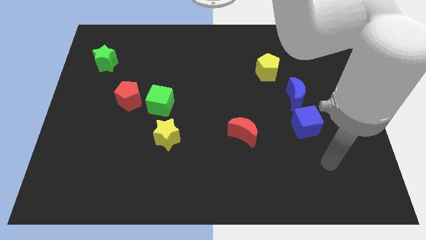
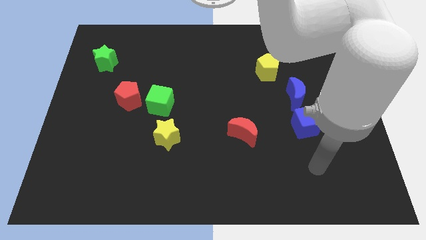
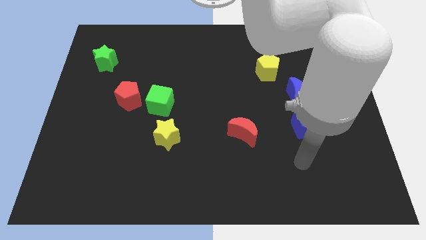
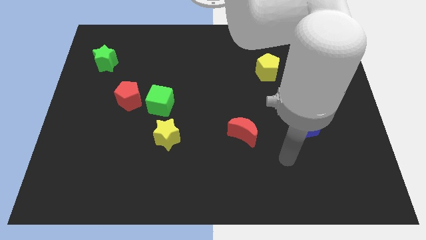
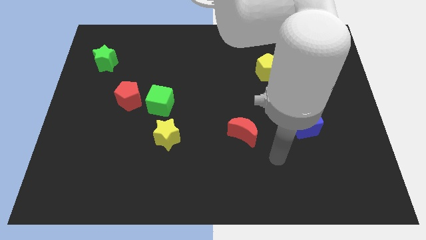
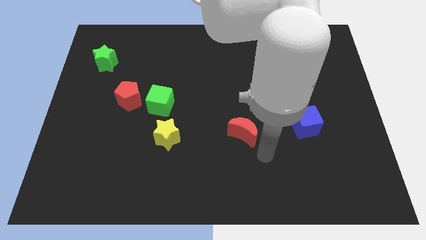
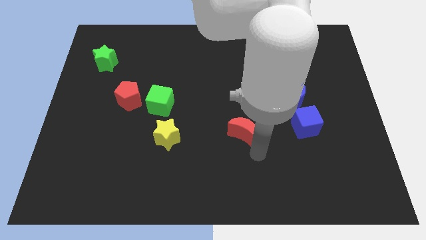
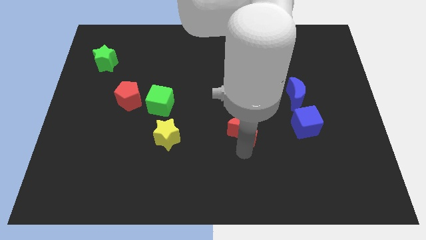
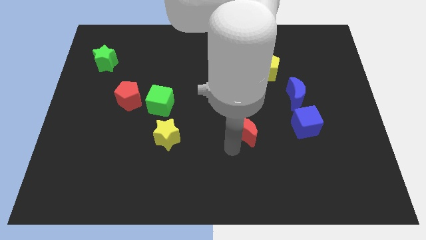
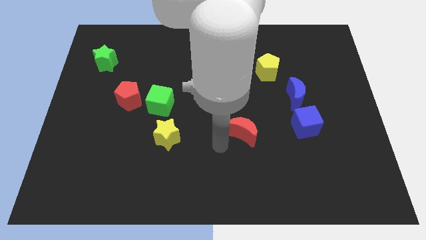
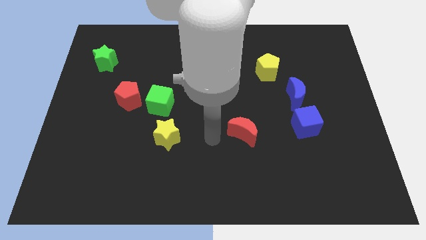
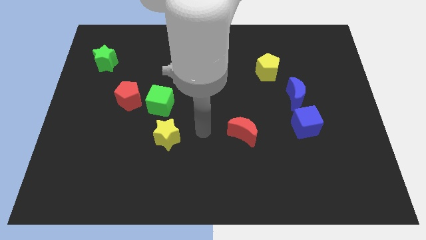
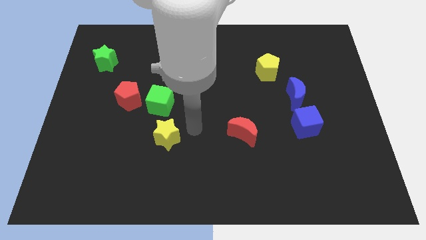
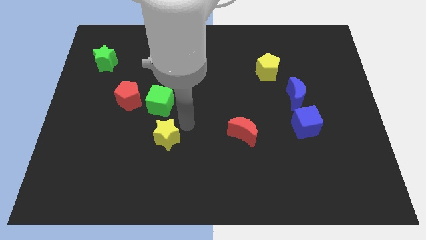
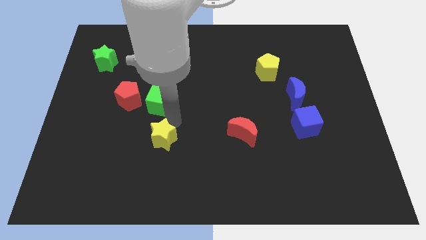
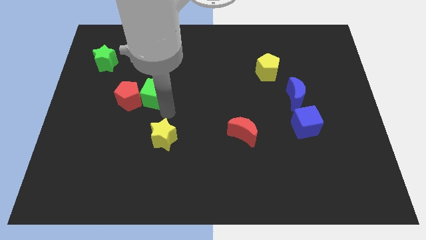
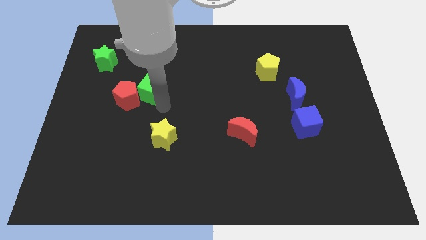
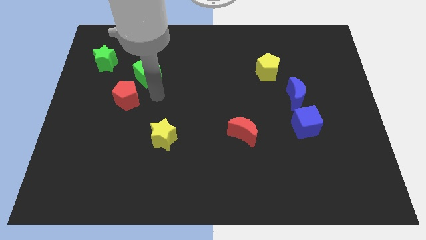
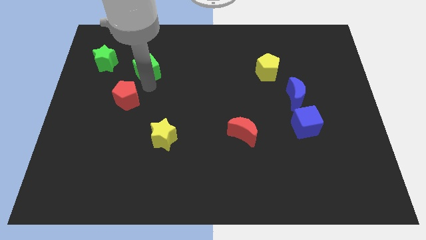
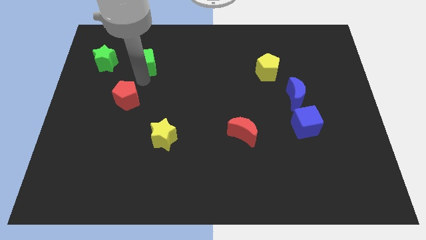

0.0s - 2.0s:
pull the red pentagon apart from the green cube

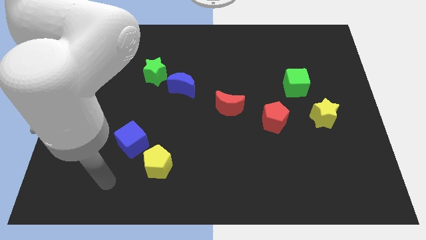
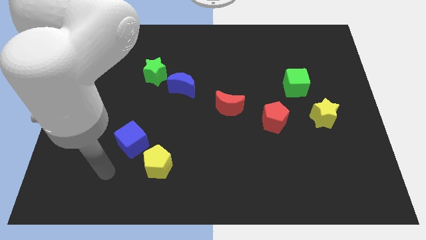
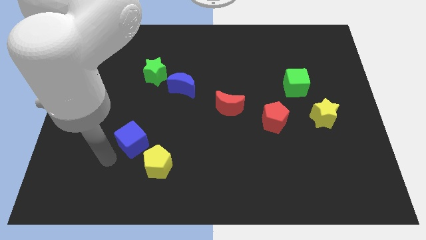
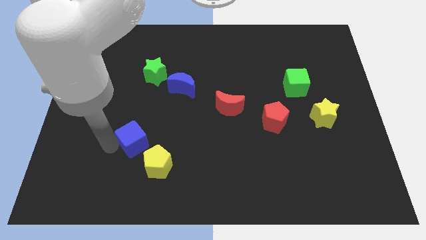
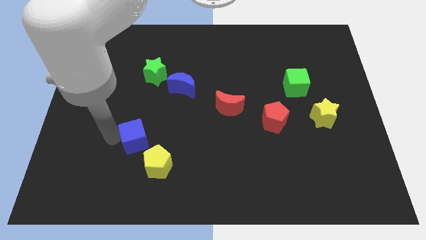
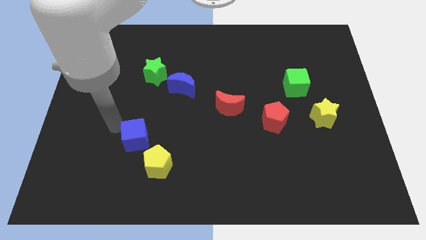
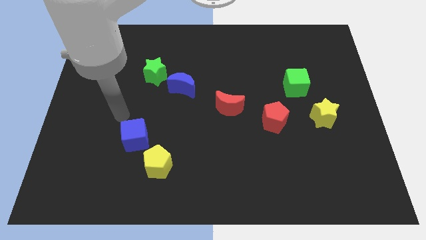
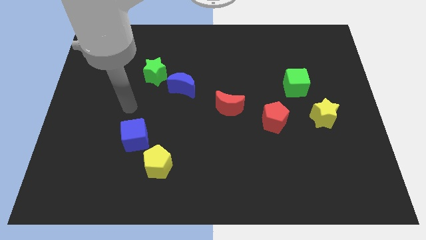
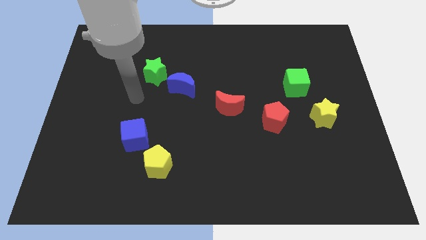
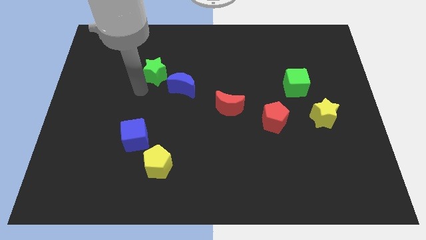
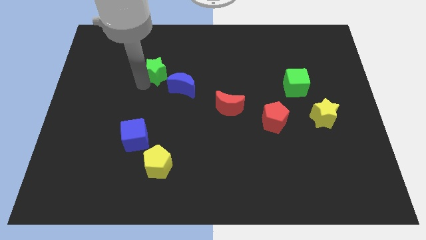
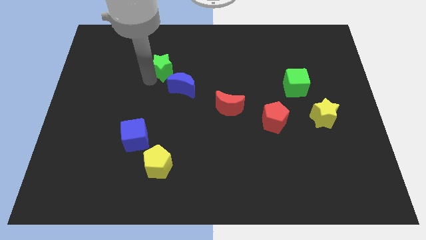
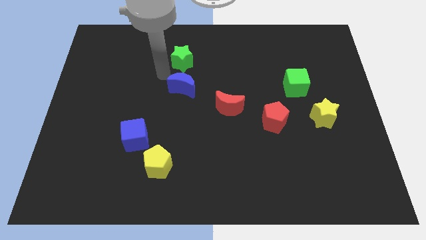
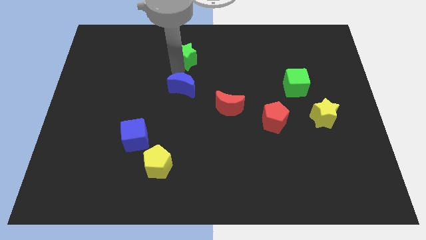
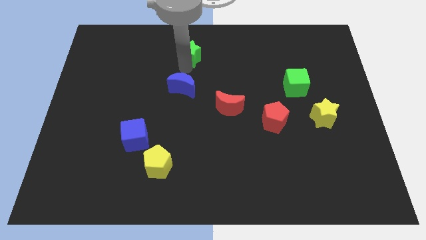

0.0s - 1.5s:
pull the blue moon apart from the green star

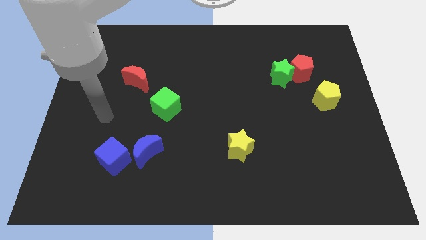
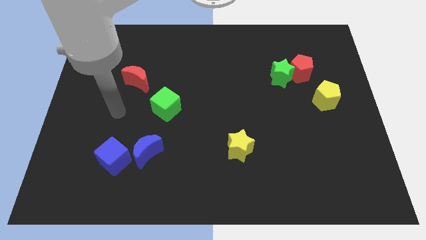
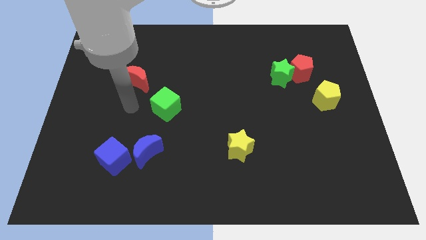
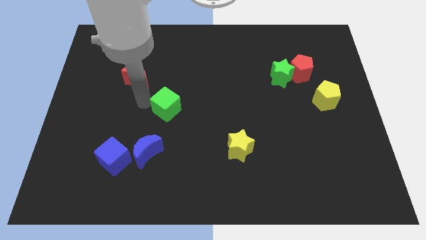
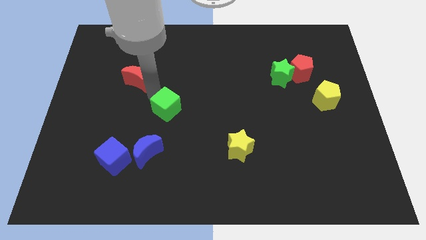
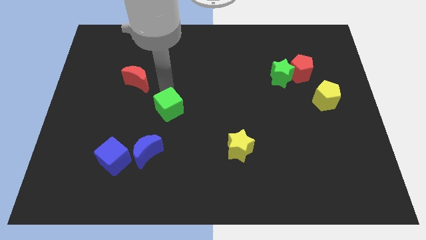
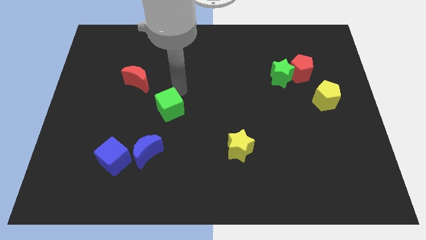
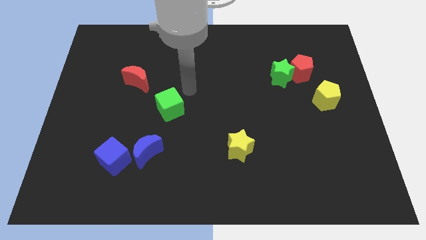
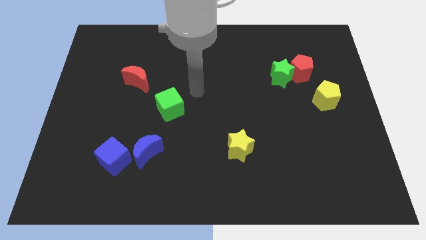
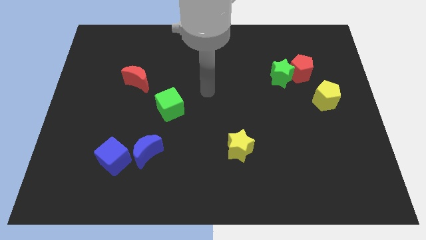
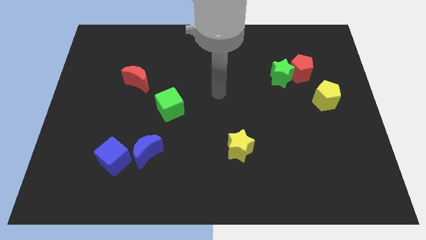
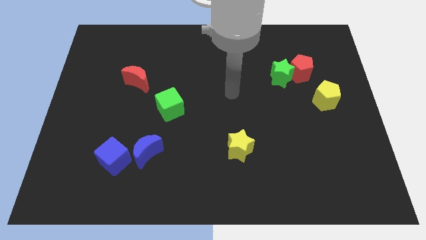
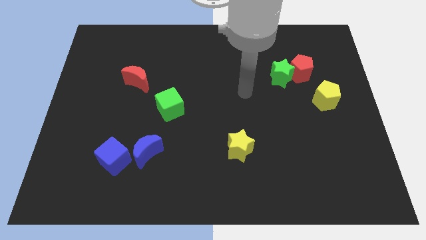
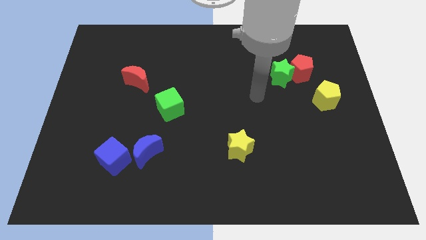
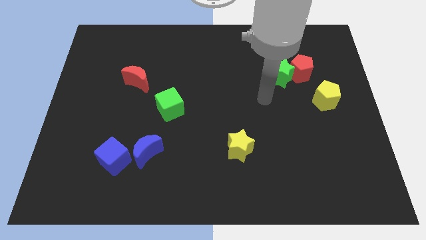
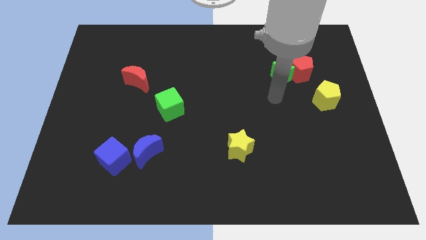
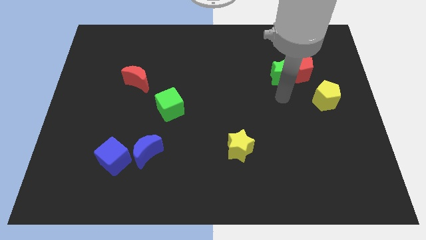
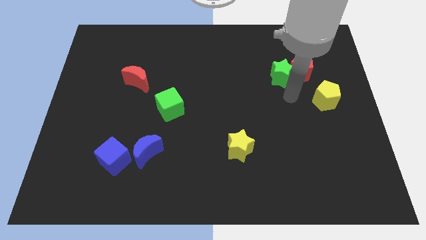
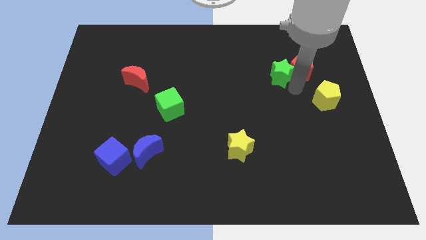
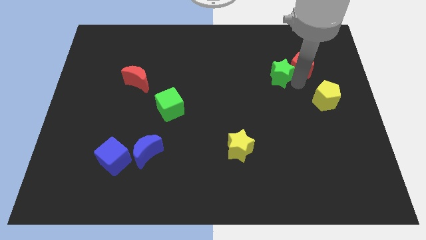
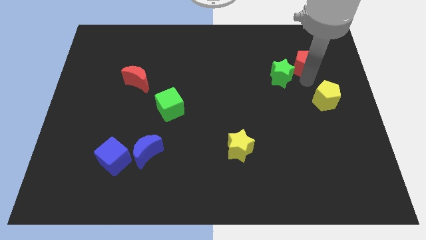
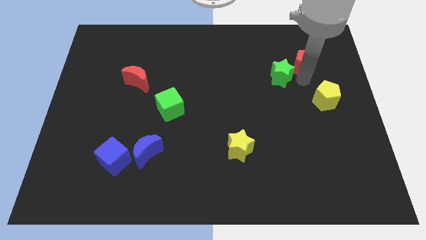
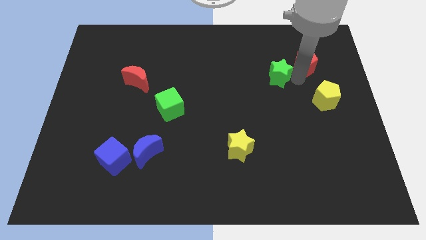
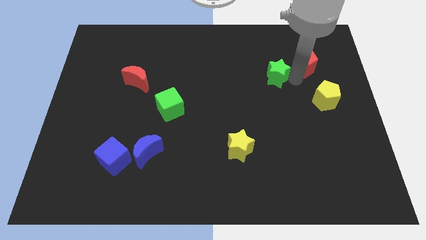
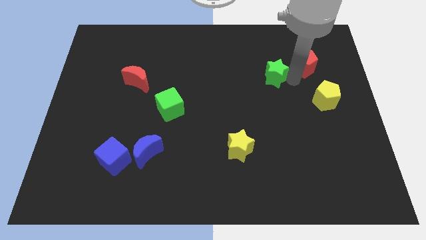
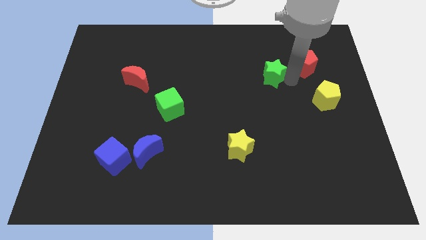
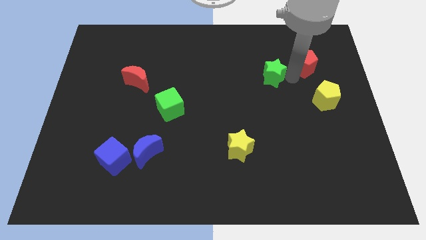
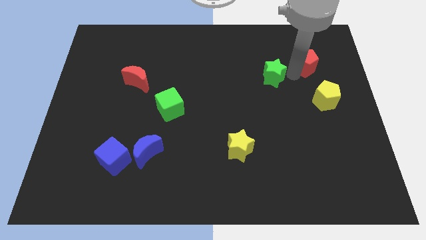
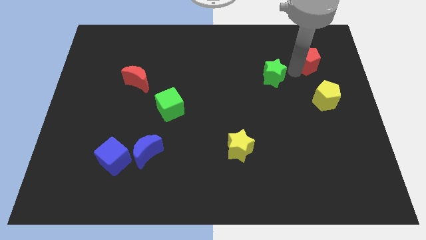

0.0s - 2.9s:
pull the green star apart from the red pentagon

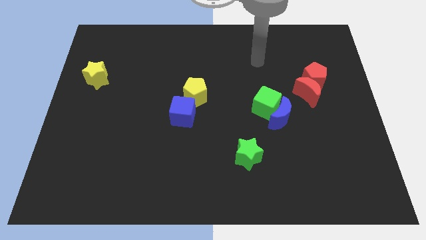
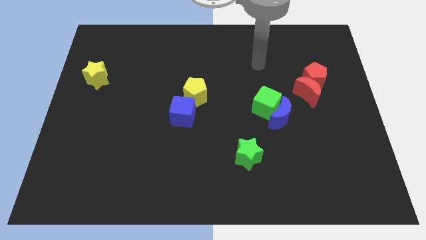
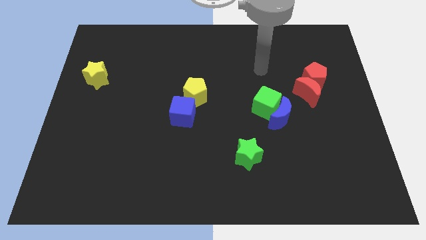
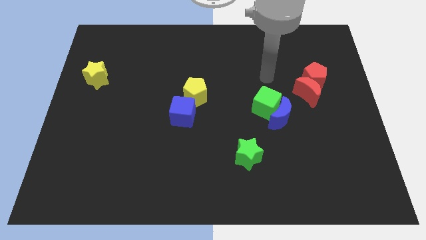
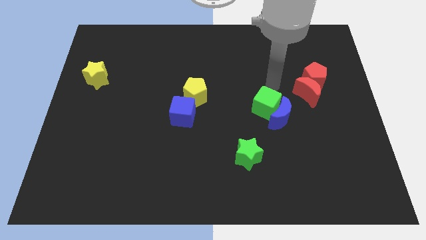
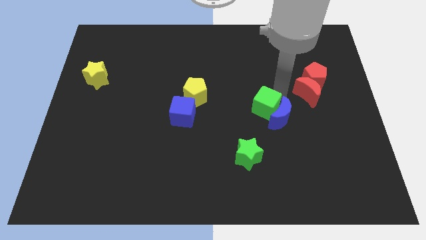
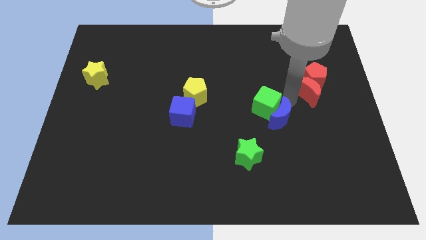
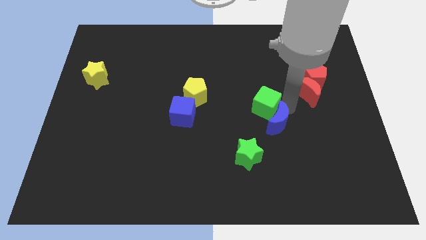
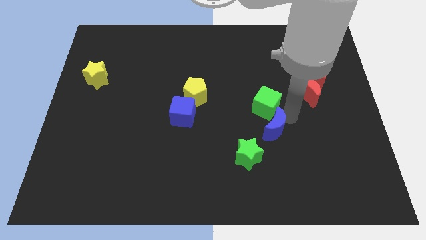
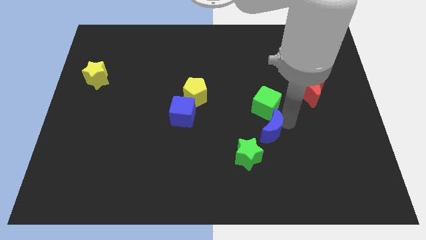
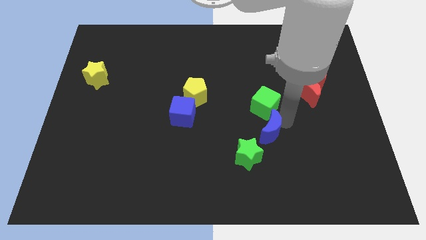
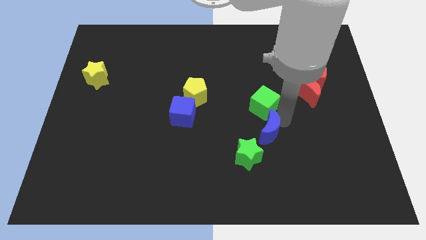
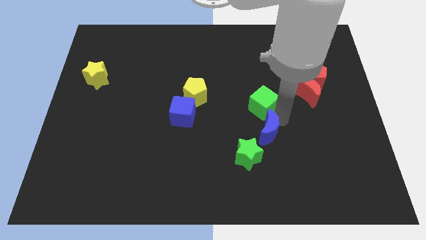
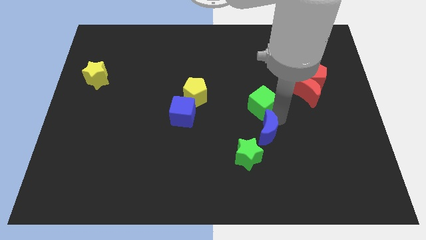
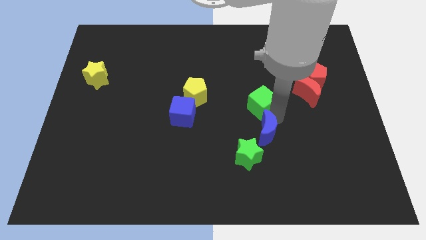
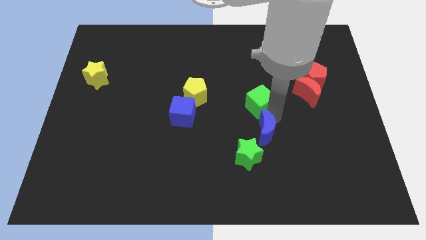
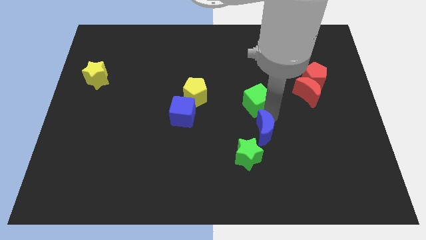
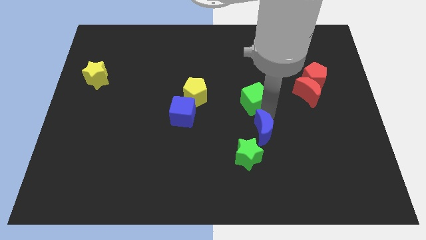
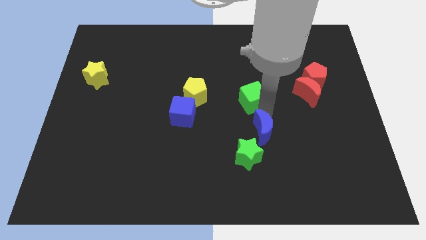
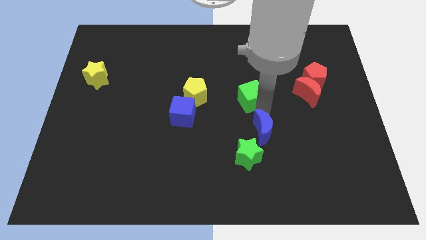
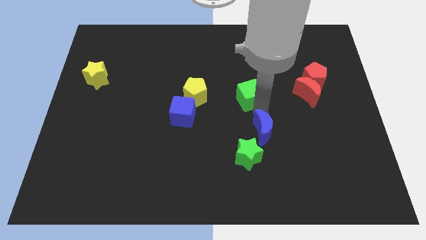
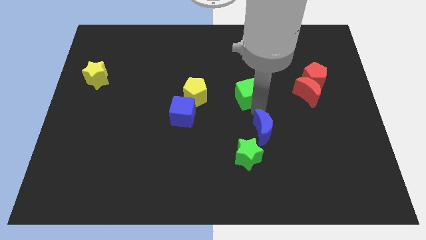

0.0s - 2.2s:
separate the green cube from the blue moon

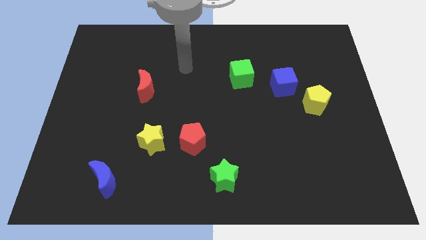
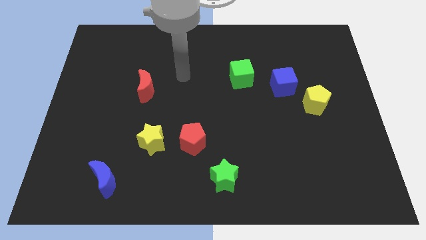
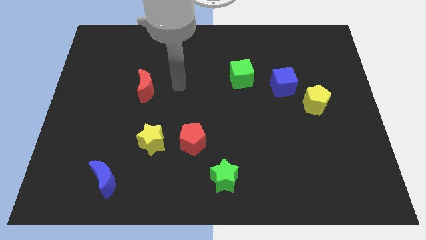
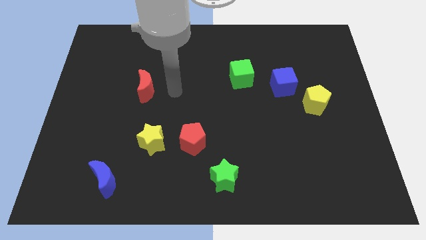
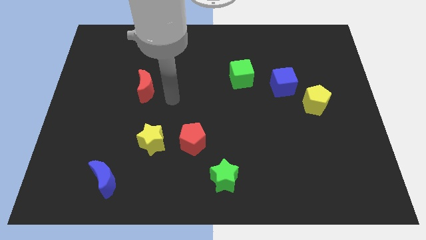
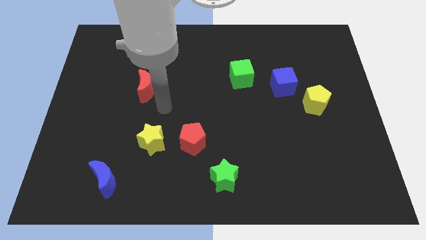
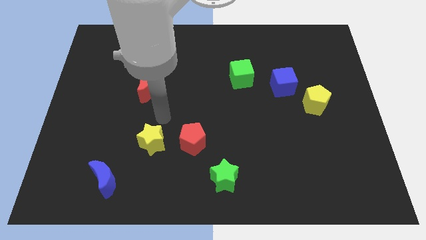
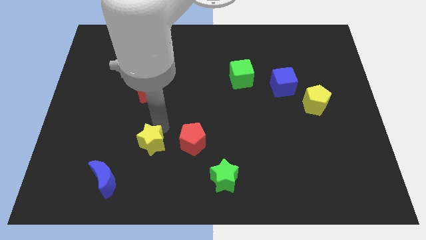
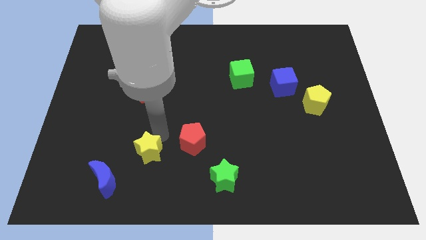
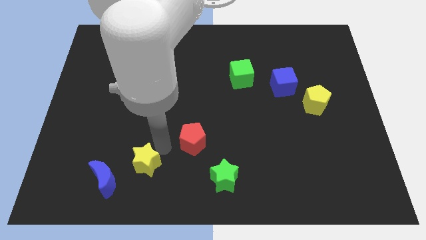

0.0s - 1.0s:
separate the red pentagon from the yellow star
